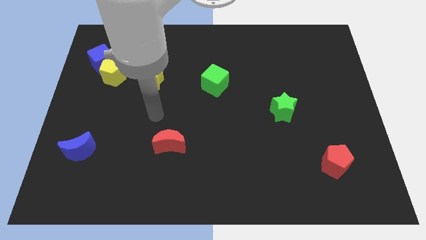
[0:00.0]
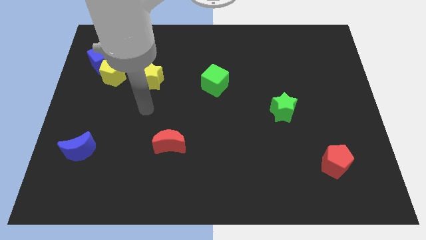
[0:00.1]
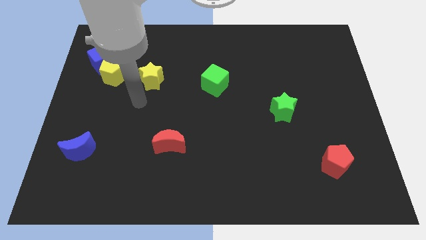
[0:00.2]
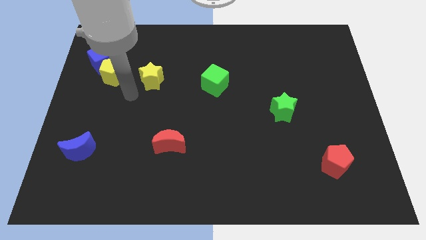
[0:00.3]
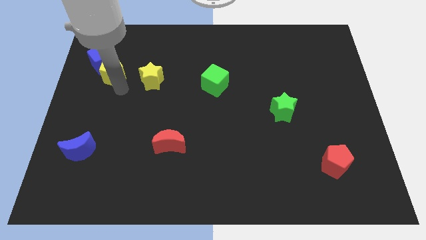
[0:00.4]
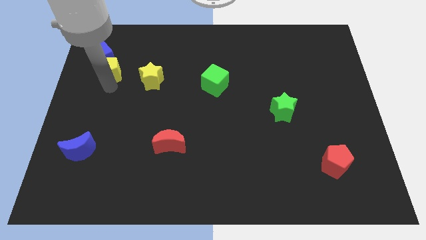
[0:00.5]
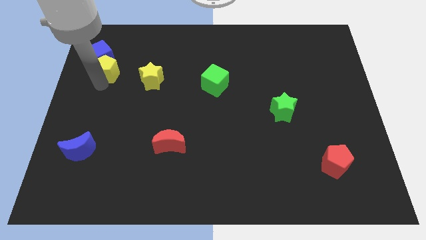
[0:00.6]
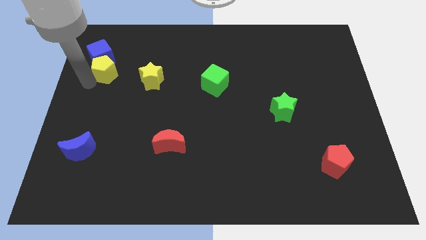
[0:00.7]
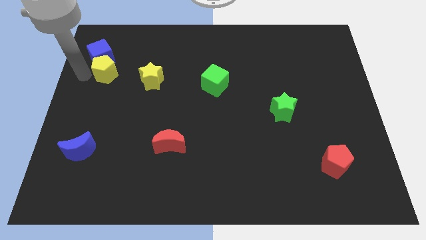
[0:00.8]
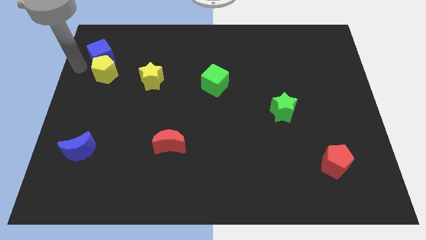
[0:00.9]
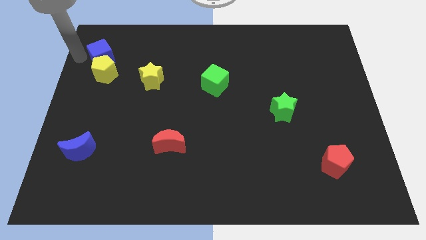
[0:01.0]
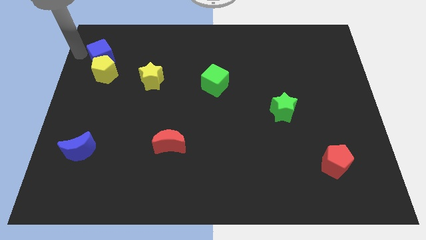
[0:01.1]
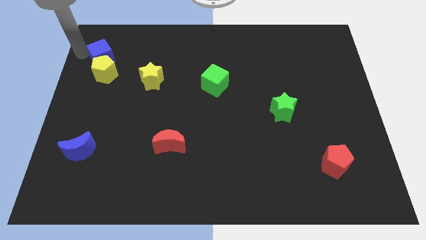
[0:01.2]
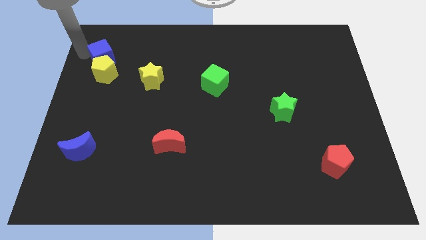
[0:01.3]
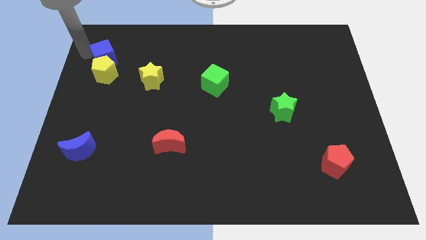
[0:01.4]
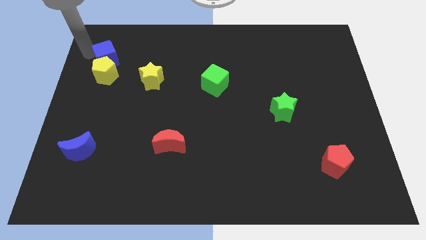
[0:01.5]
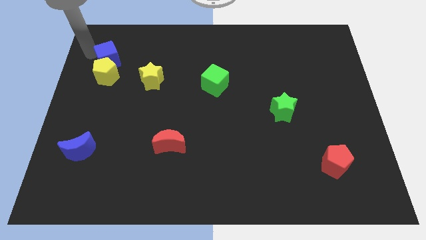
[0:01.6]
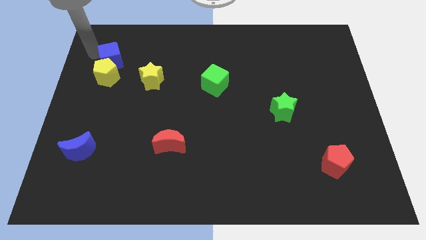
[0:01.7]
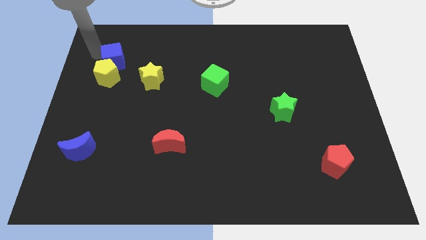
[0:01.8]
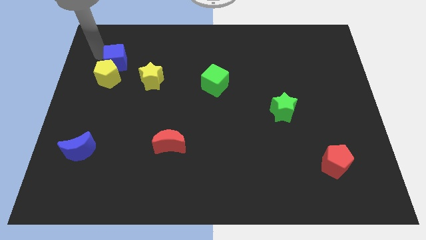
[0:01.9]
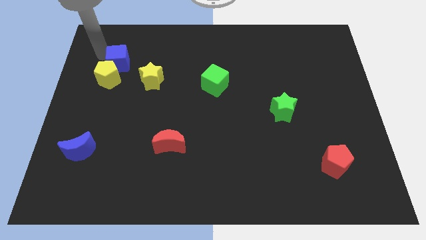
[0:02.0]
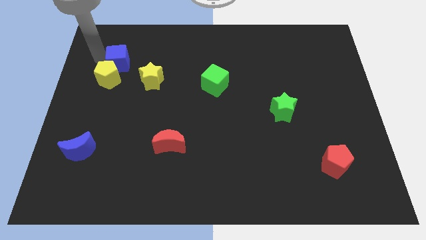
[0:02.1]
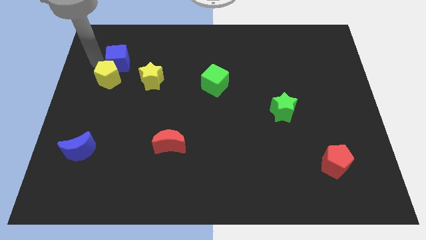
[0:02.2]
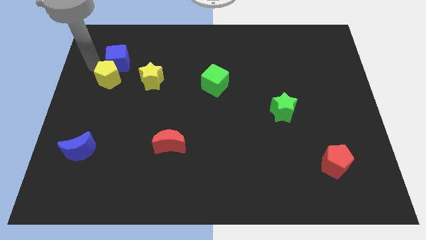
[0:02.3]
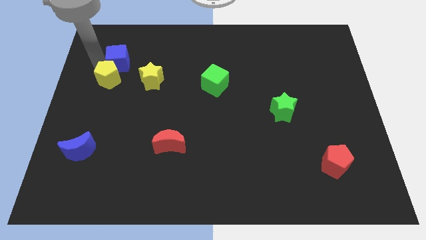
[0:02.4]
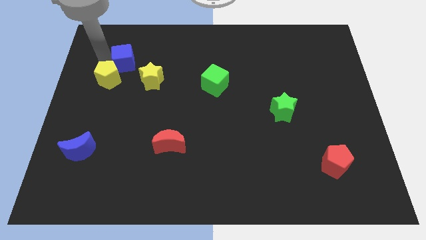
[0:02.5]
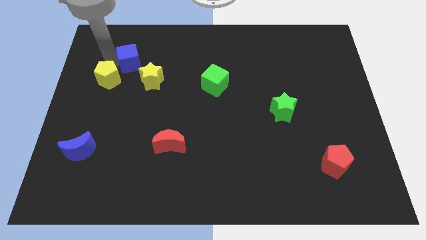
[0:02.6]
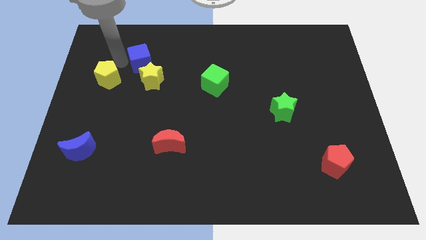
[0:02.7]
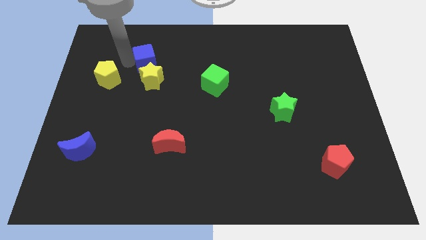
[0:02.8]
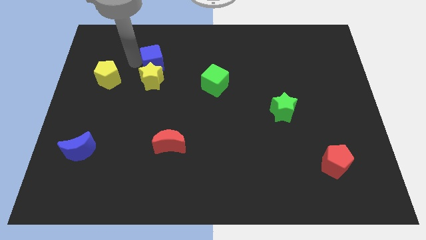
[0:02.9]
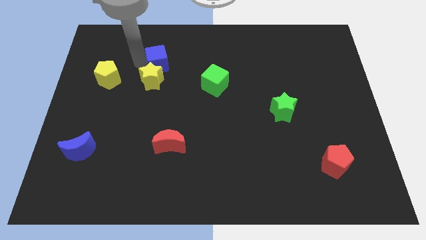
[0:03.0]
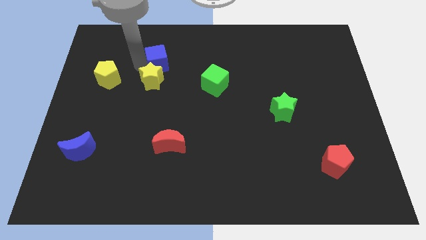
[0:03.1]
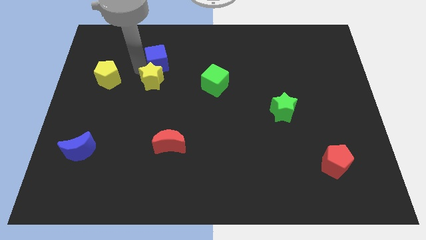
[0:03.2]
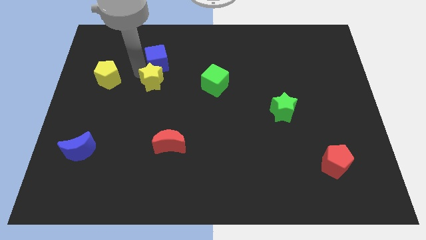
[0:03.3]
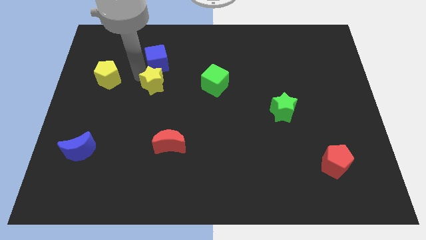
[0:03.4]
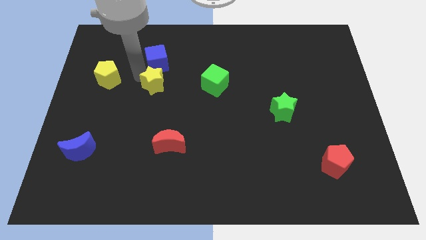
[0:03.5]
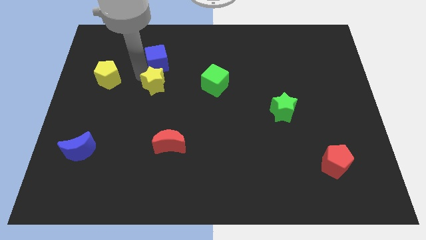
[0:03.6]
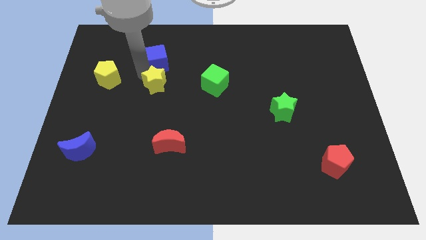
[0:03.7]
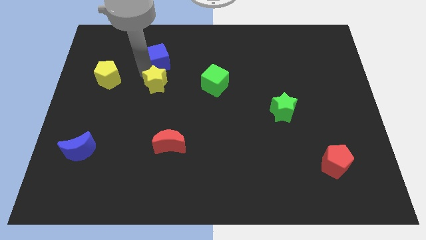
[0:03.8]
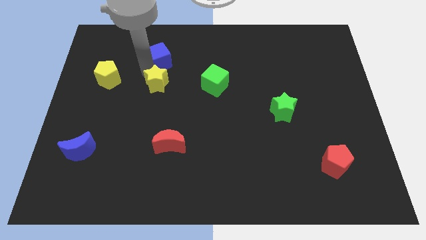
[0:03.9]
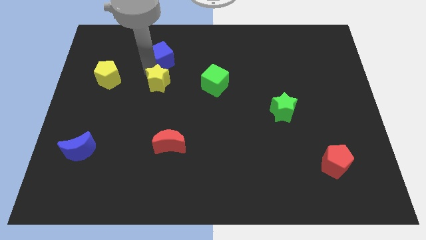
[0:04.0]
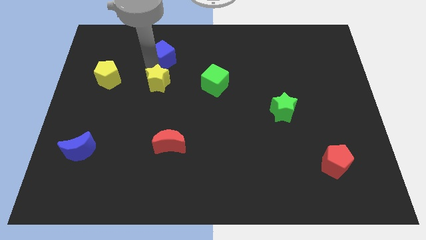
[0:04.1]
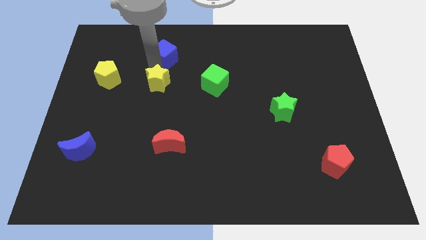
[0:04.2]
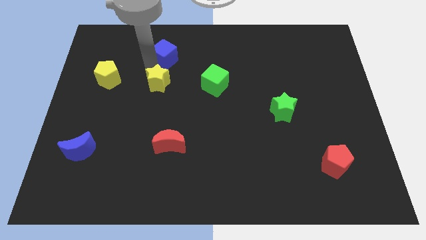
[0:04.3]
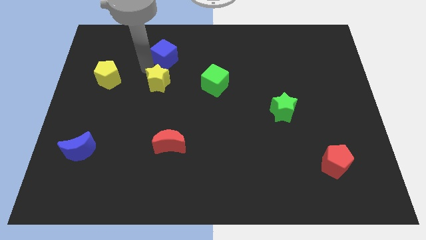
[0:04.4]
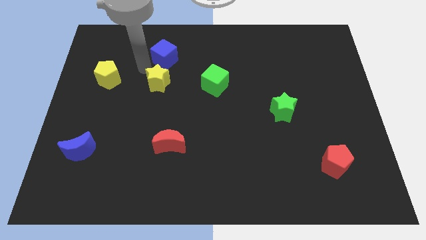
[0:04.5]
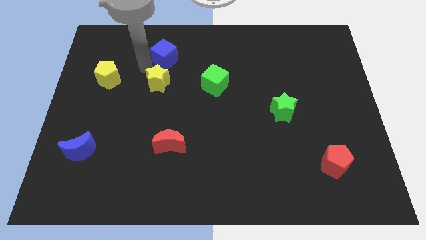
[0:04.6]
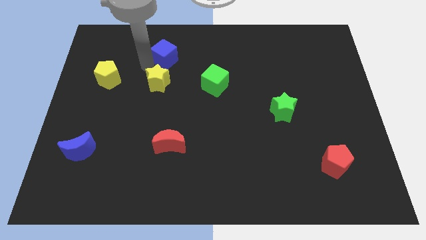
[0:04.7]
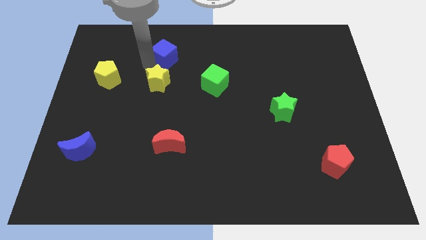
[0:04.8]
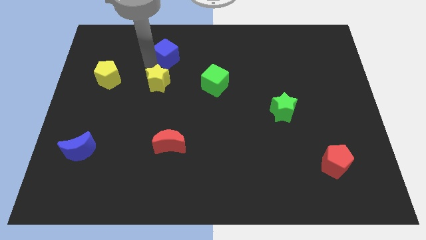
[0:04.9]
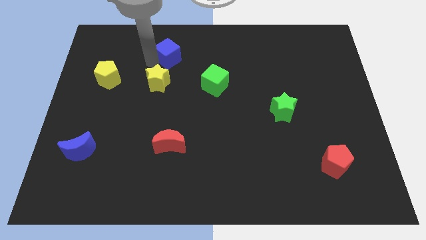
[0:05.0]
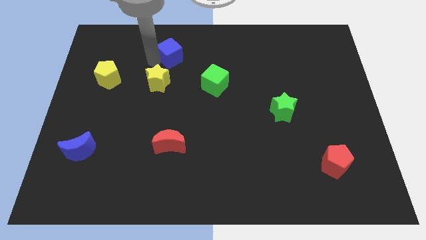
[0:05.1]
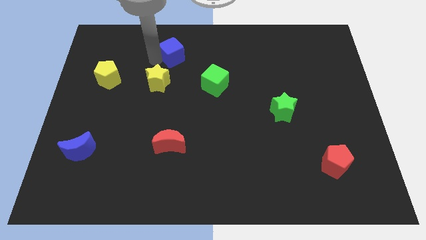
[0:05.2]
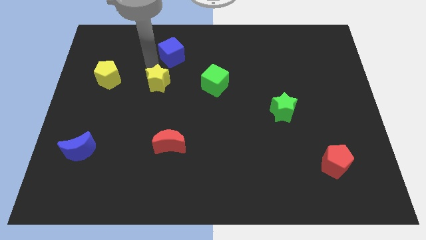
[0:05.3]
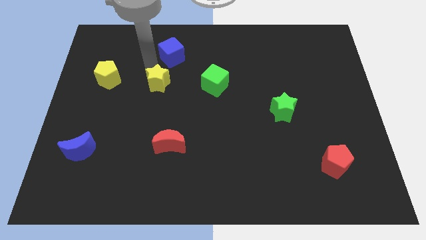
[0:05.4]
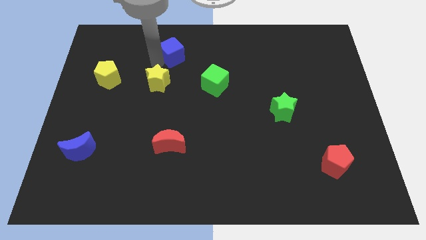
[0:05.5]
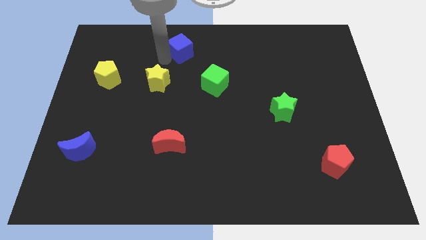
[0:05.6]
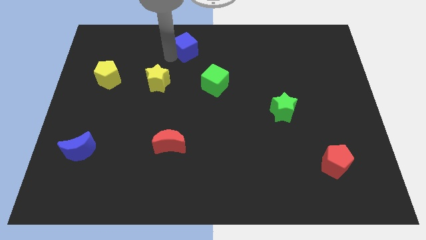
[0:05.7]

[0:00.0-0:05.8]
push the blue cube to the top

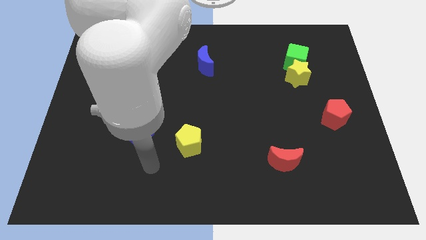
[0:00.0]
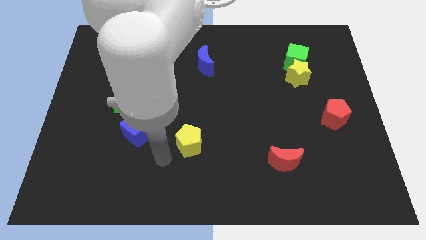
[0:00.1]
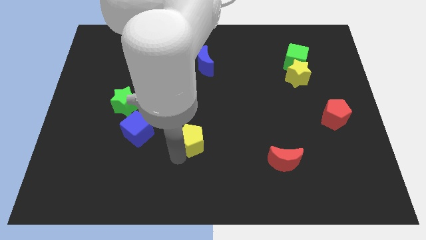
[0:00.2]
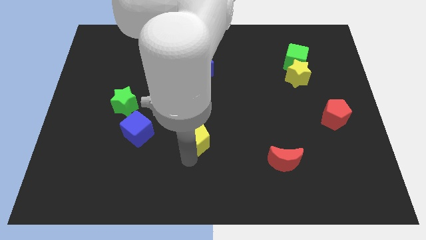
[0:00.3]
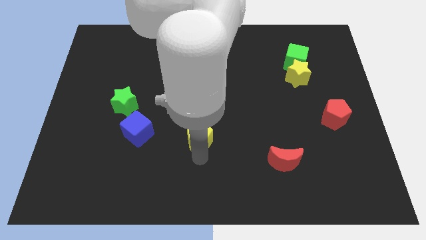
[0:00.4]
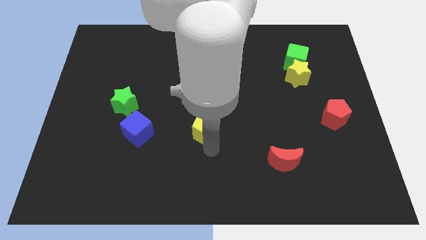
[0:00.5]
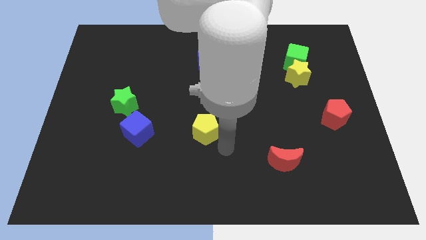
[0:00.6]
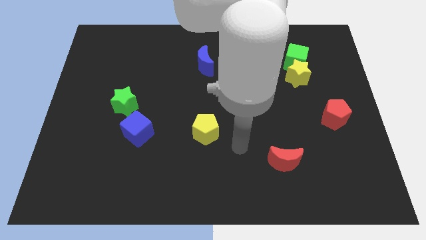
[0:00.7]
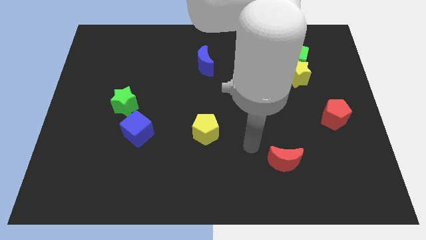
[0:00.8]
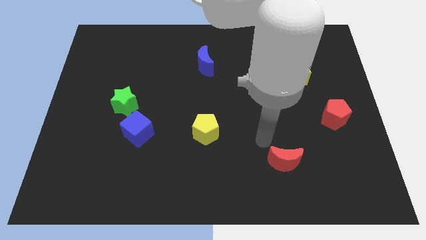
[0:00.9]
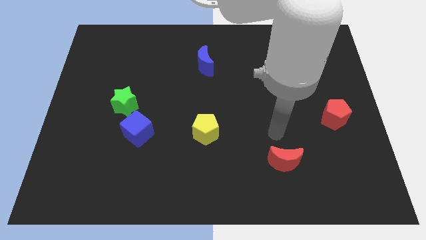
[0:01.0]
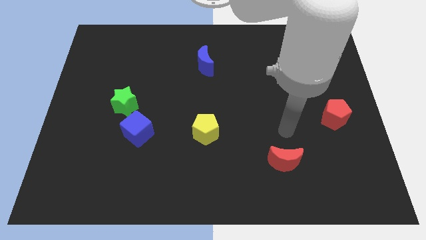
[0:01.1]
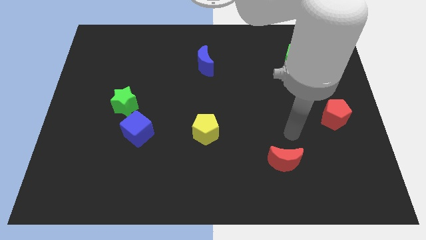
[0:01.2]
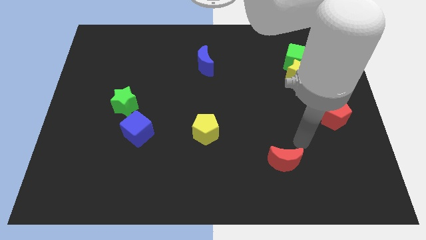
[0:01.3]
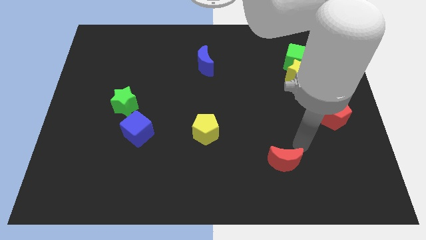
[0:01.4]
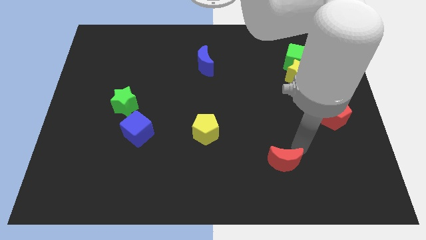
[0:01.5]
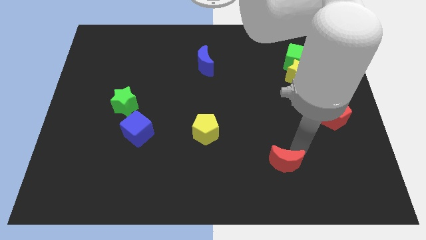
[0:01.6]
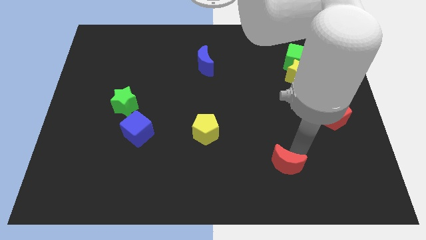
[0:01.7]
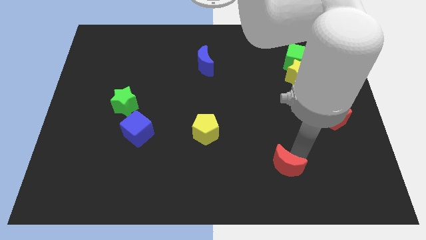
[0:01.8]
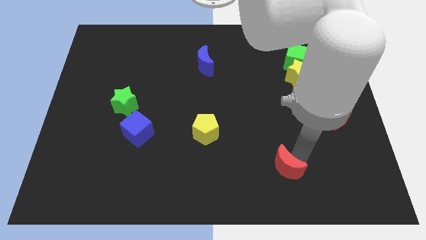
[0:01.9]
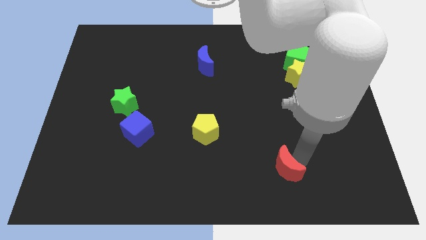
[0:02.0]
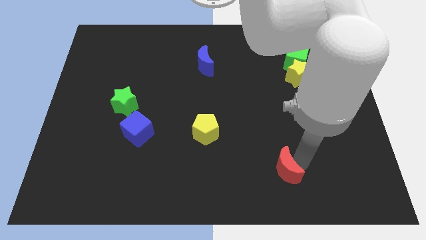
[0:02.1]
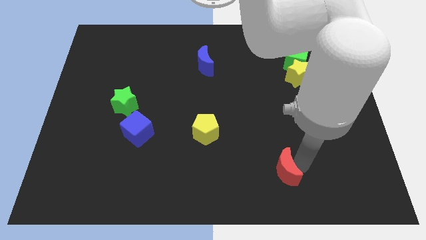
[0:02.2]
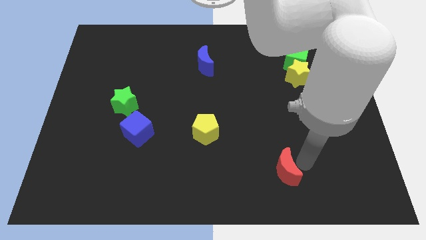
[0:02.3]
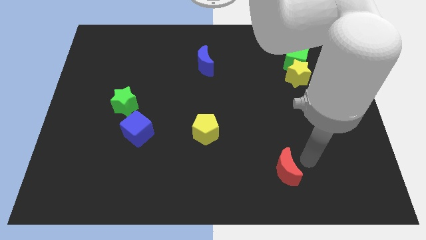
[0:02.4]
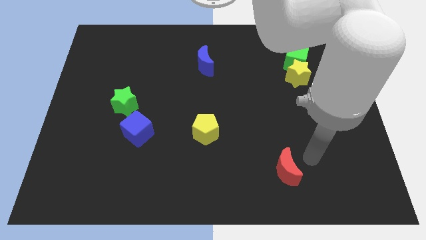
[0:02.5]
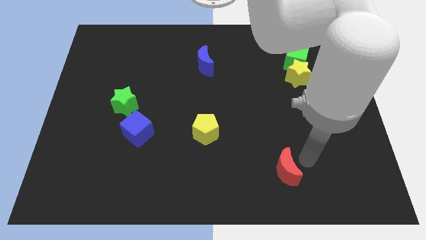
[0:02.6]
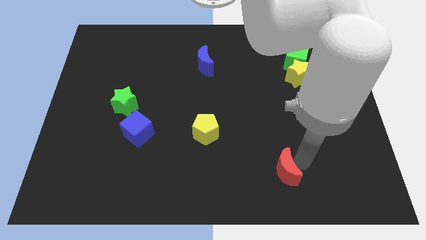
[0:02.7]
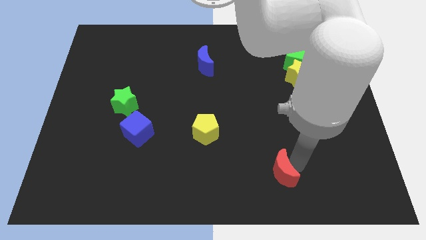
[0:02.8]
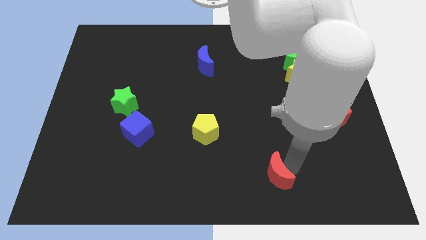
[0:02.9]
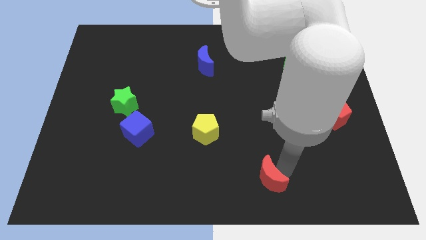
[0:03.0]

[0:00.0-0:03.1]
move the red moon to the bottom side
